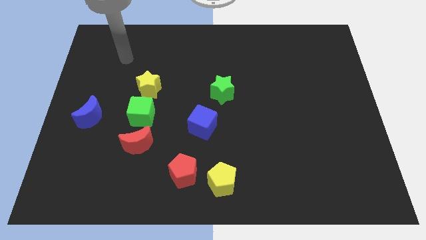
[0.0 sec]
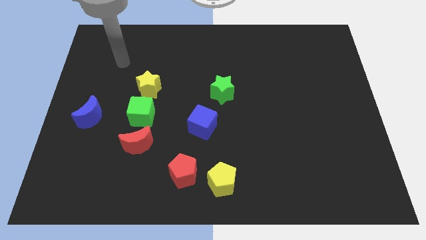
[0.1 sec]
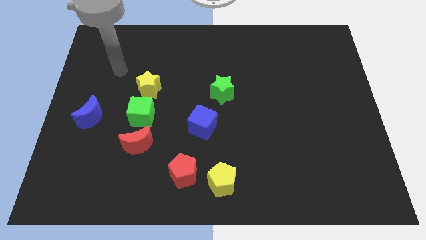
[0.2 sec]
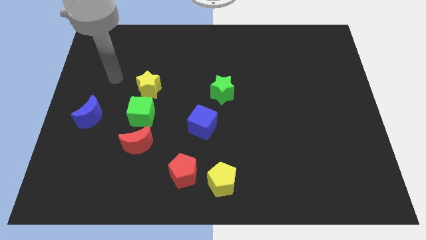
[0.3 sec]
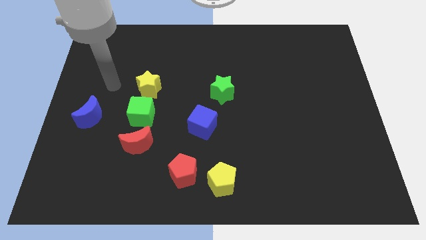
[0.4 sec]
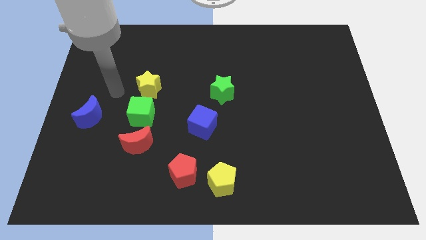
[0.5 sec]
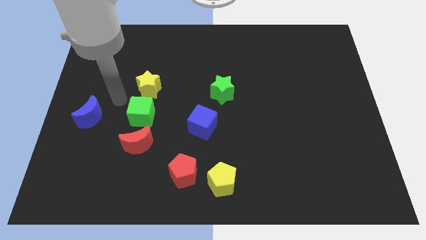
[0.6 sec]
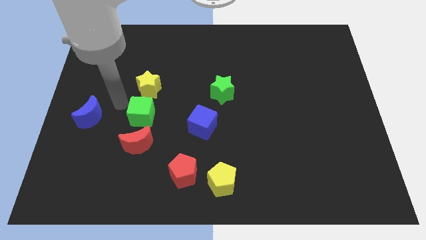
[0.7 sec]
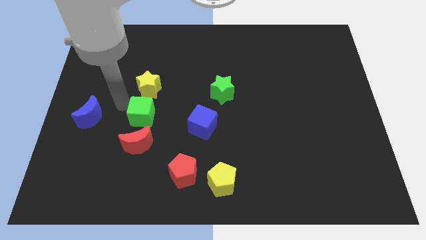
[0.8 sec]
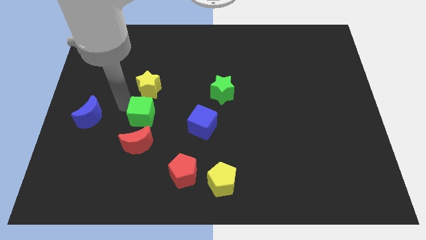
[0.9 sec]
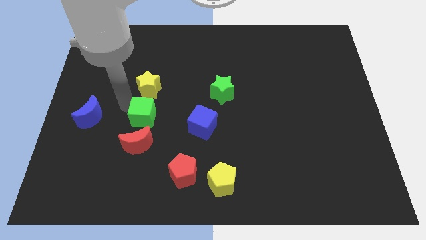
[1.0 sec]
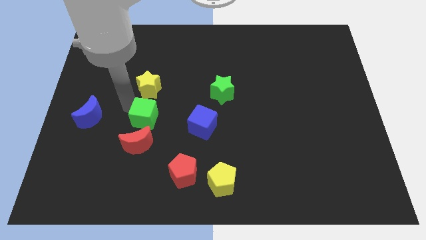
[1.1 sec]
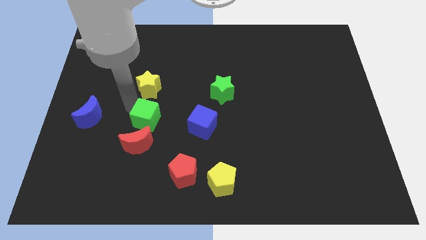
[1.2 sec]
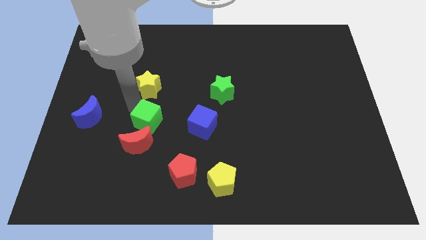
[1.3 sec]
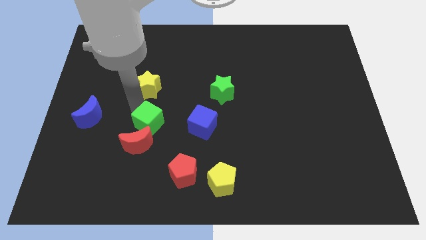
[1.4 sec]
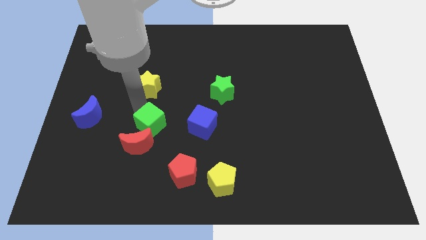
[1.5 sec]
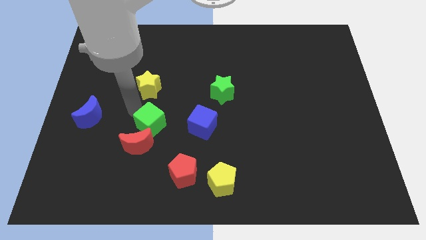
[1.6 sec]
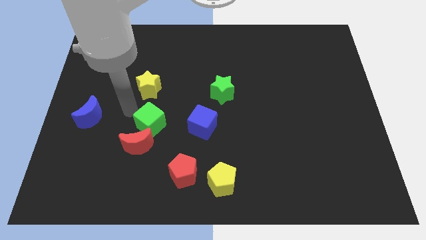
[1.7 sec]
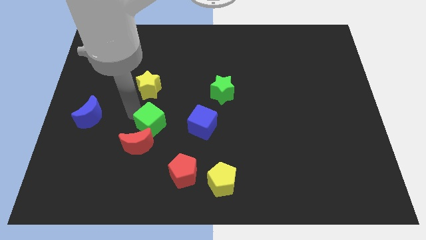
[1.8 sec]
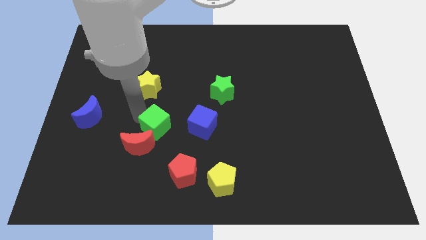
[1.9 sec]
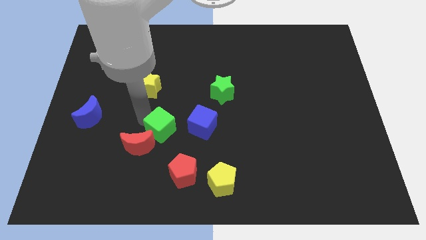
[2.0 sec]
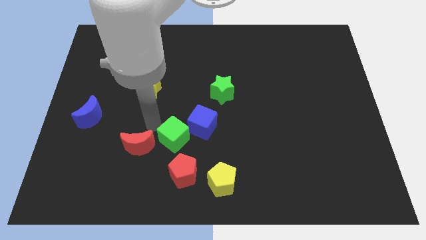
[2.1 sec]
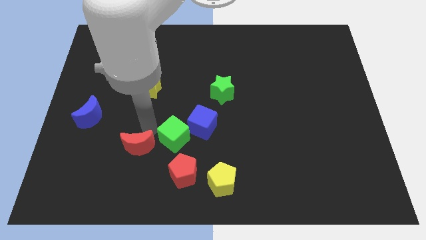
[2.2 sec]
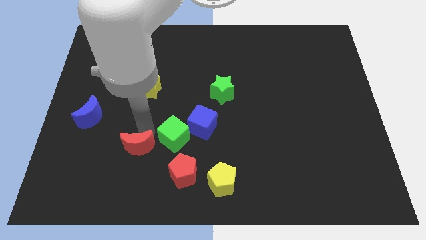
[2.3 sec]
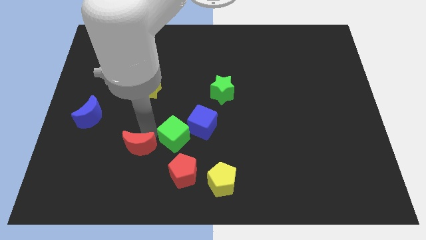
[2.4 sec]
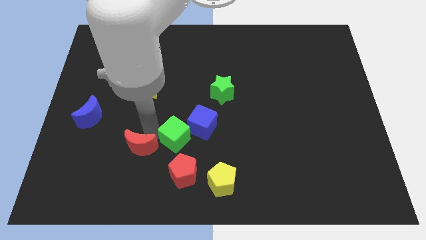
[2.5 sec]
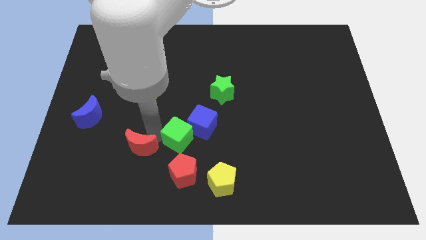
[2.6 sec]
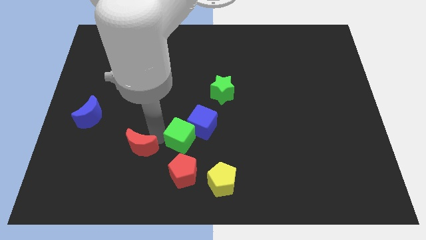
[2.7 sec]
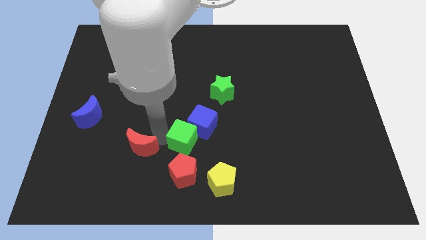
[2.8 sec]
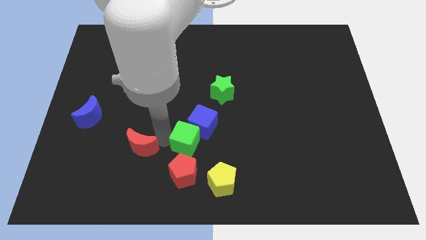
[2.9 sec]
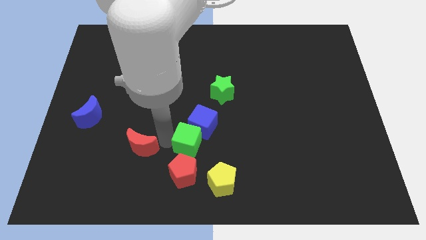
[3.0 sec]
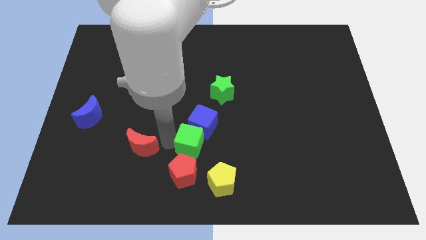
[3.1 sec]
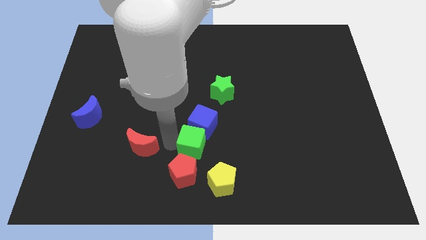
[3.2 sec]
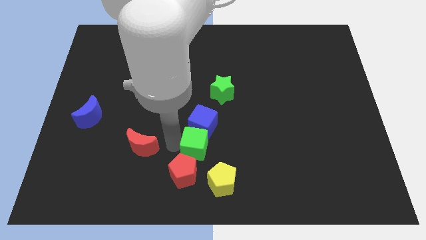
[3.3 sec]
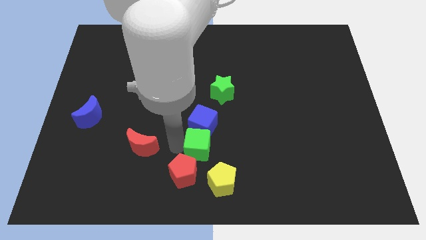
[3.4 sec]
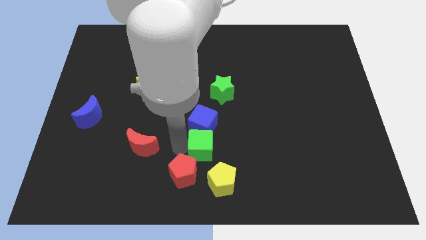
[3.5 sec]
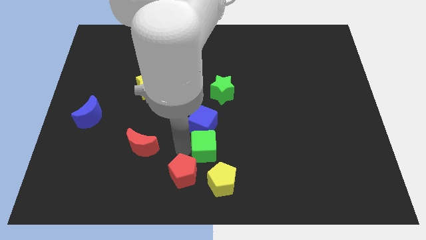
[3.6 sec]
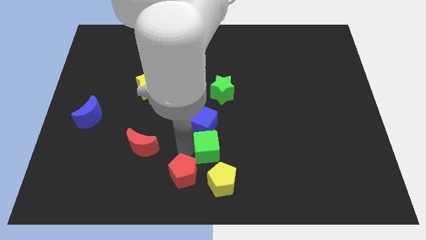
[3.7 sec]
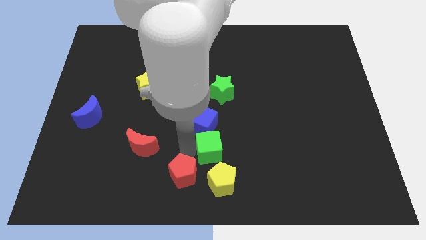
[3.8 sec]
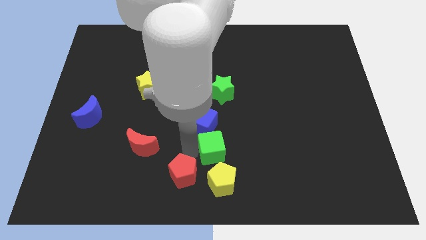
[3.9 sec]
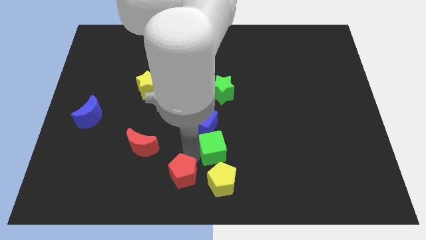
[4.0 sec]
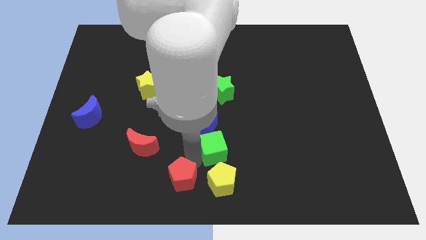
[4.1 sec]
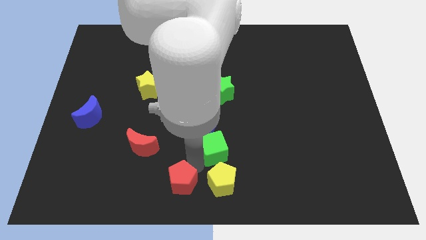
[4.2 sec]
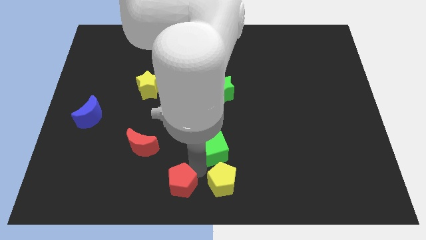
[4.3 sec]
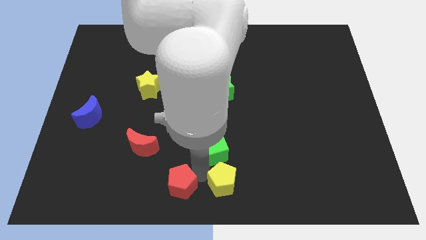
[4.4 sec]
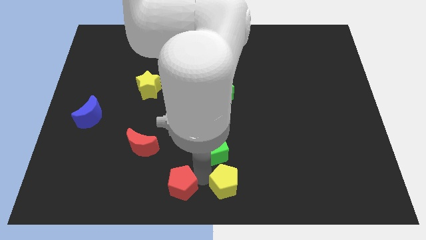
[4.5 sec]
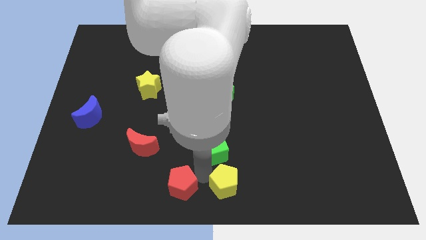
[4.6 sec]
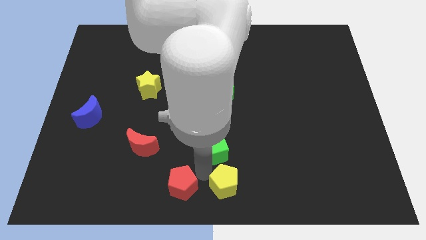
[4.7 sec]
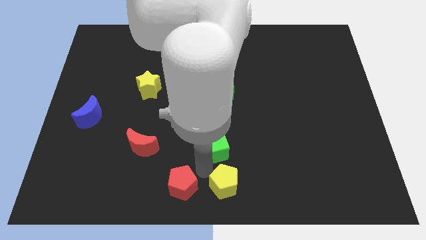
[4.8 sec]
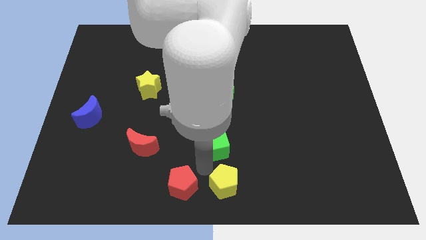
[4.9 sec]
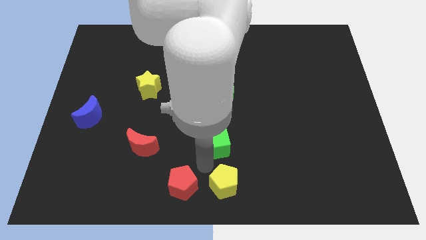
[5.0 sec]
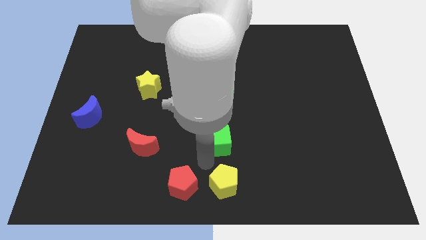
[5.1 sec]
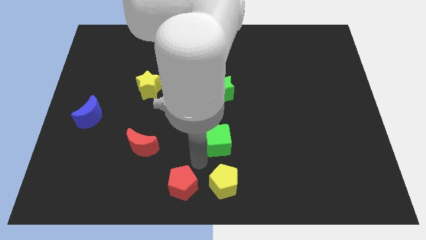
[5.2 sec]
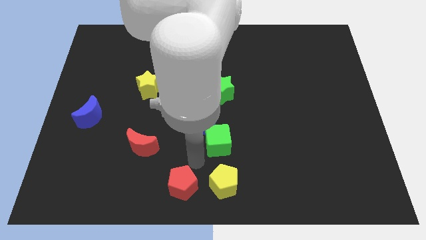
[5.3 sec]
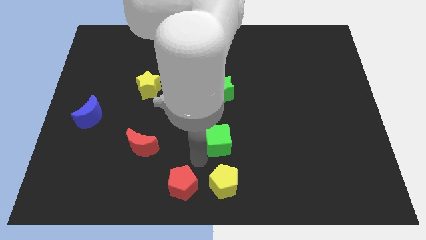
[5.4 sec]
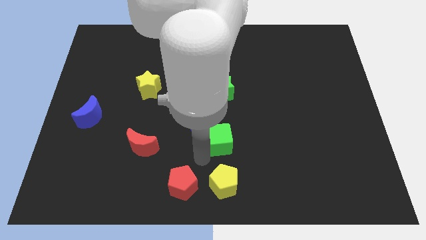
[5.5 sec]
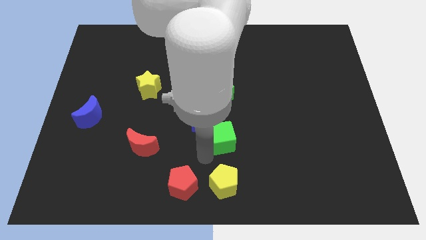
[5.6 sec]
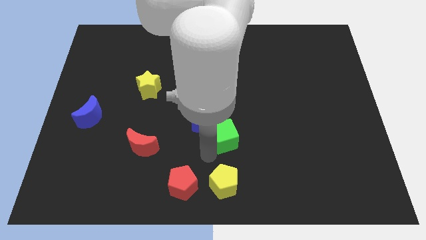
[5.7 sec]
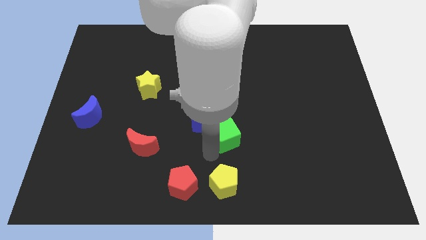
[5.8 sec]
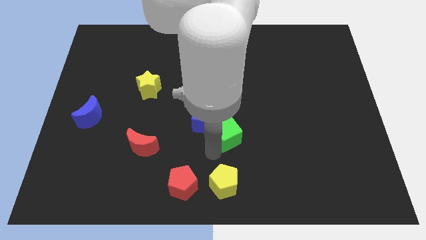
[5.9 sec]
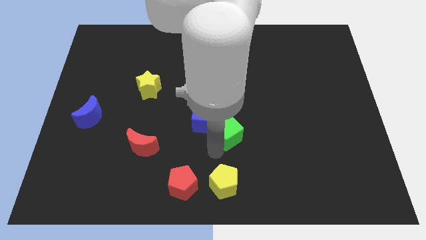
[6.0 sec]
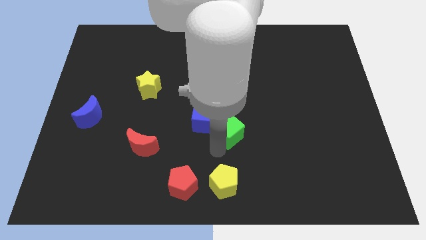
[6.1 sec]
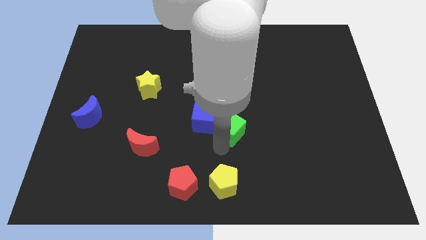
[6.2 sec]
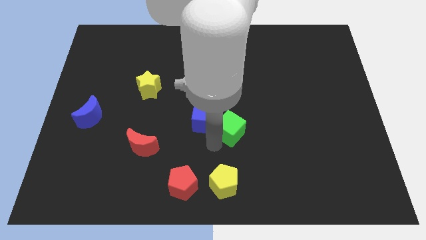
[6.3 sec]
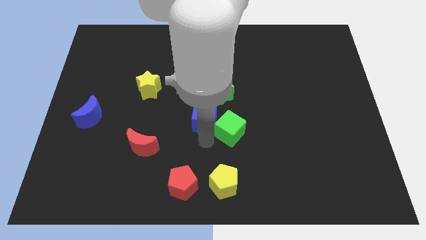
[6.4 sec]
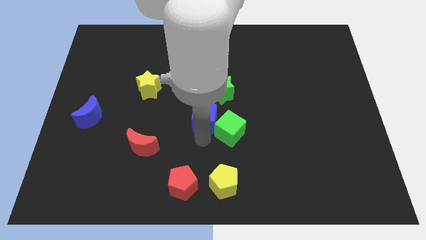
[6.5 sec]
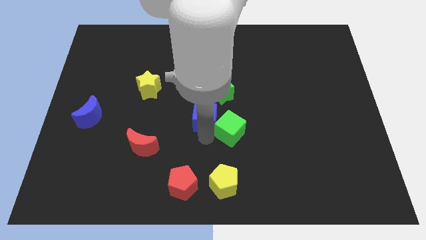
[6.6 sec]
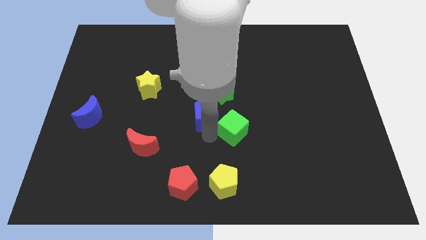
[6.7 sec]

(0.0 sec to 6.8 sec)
move the green cube right

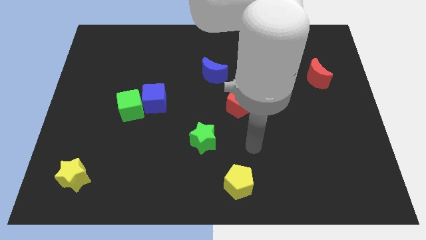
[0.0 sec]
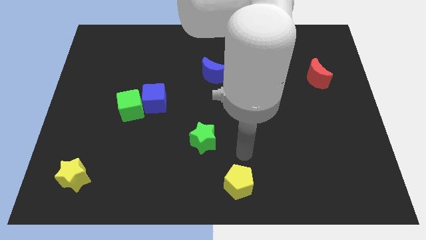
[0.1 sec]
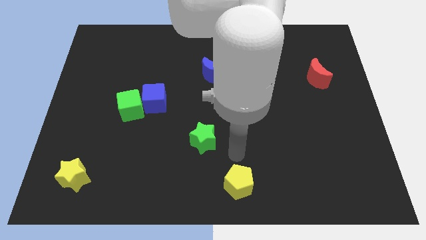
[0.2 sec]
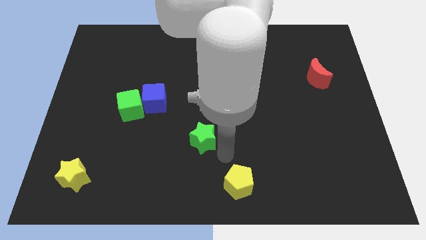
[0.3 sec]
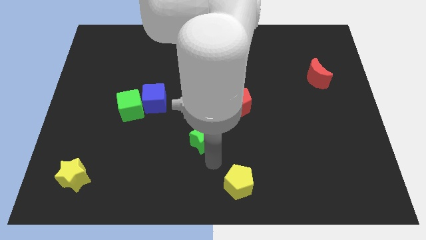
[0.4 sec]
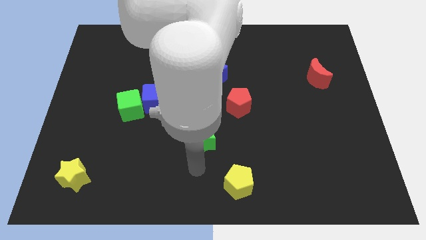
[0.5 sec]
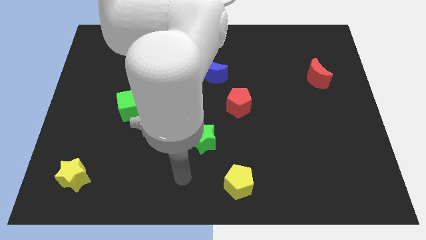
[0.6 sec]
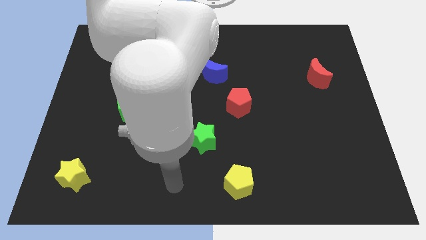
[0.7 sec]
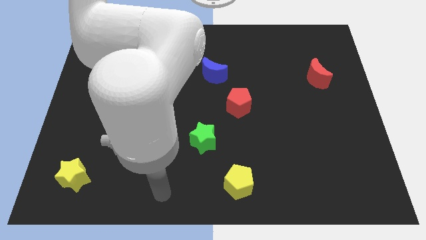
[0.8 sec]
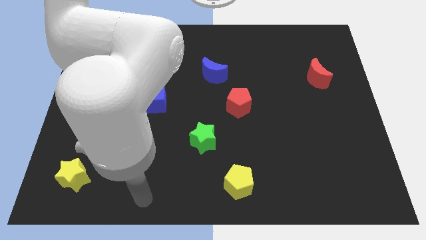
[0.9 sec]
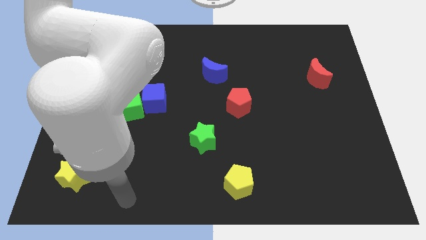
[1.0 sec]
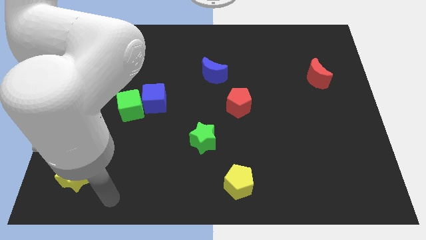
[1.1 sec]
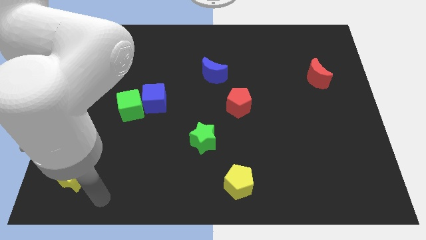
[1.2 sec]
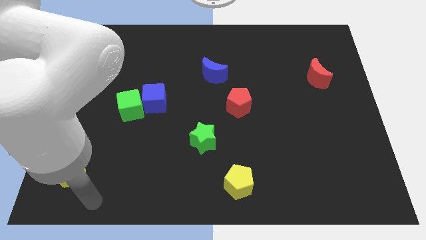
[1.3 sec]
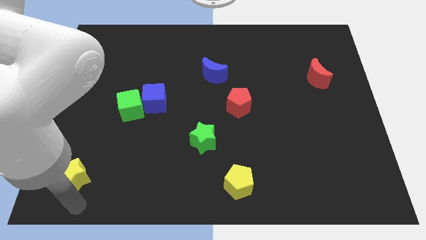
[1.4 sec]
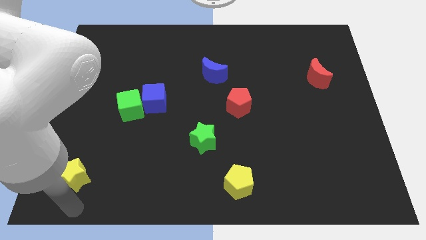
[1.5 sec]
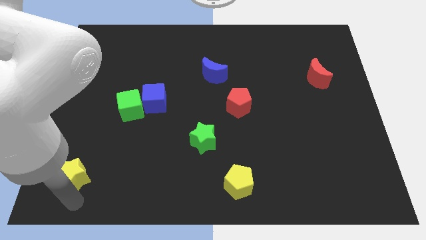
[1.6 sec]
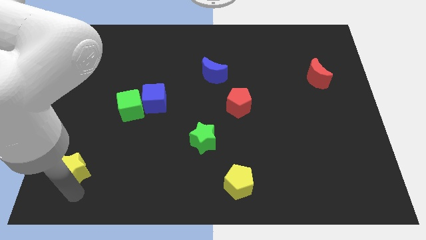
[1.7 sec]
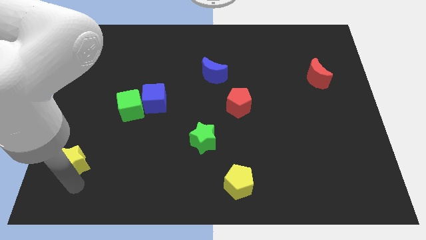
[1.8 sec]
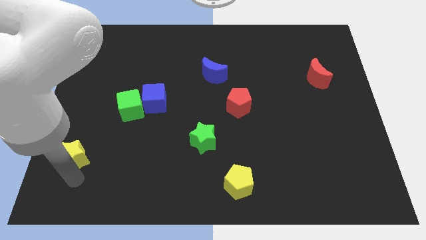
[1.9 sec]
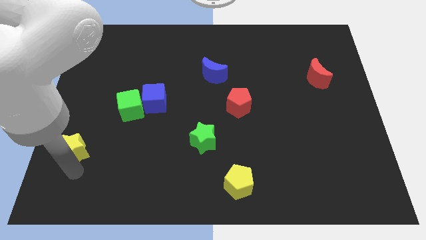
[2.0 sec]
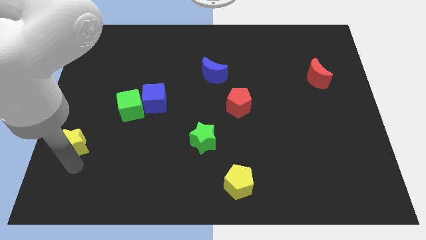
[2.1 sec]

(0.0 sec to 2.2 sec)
push the yellow star a little bit upwards
